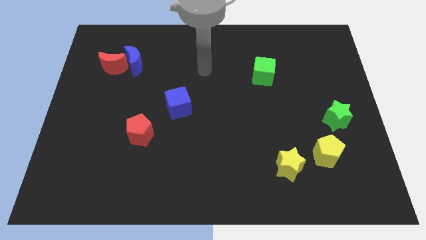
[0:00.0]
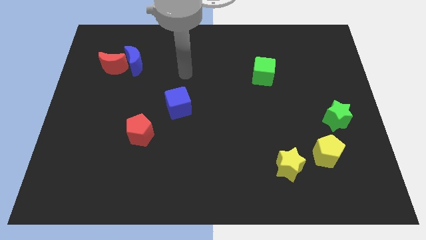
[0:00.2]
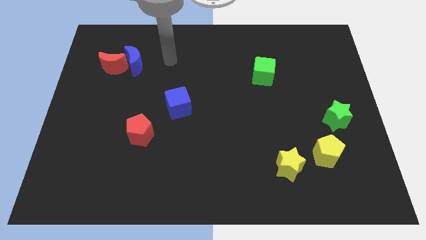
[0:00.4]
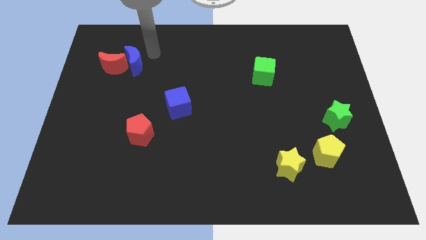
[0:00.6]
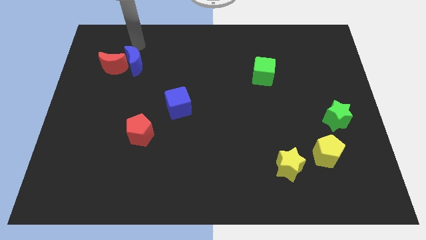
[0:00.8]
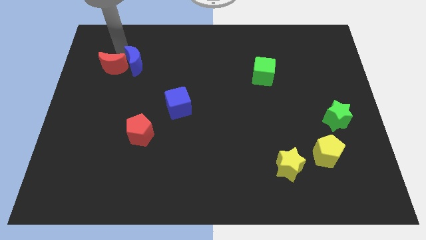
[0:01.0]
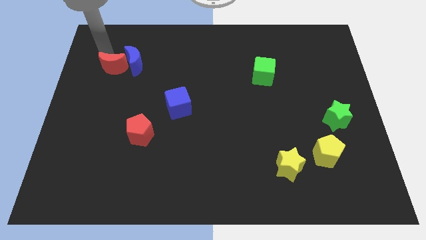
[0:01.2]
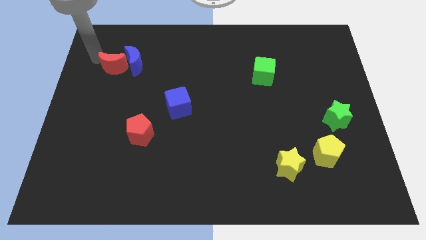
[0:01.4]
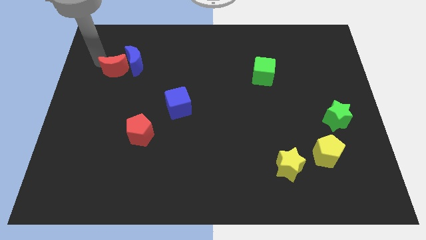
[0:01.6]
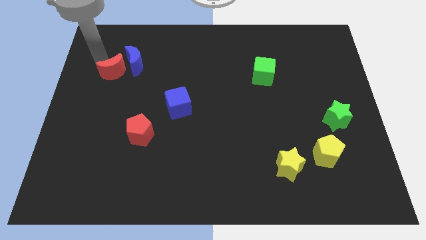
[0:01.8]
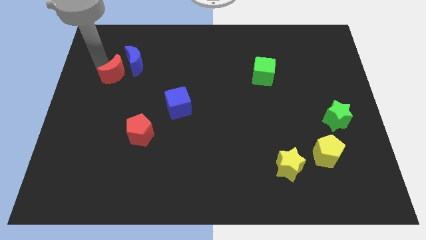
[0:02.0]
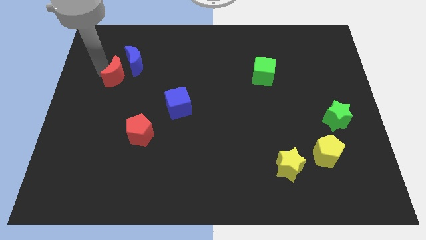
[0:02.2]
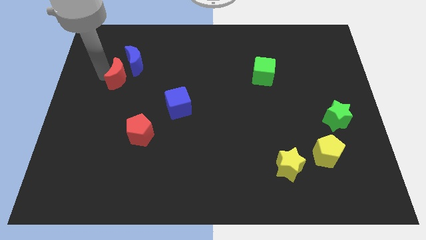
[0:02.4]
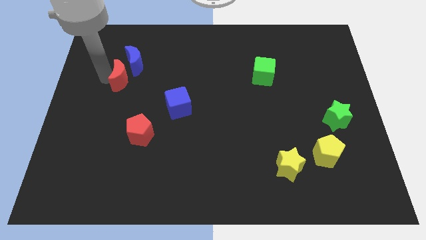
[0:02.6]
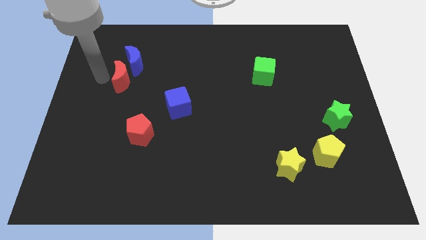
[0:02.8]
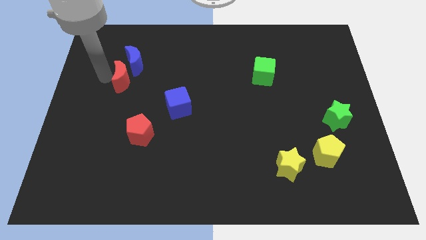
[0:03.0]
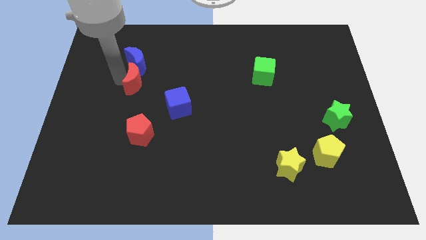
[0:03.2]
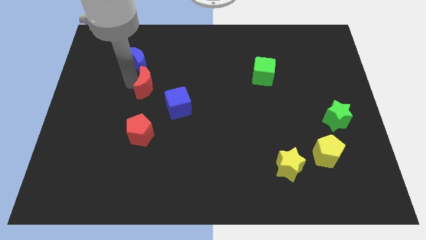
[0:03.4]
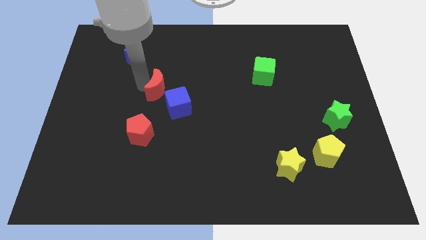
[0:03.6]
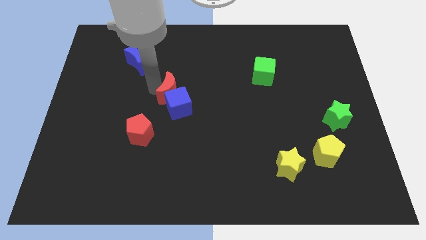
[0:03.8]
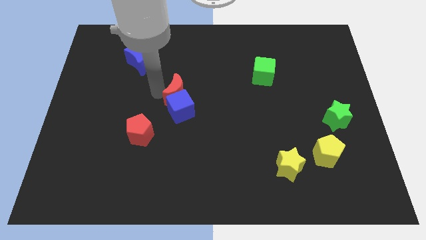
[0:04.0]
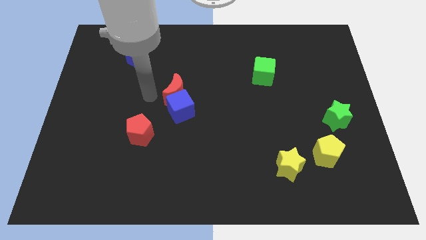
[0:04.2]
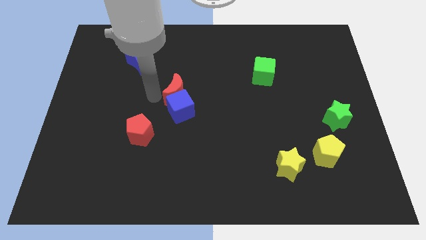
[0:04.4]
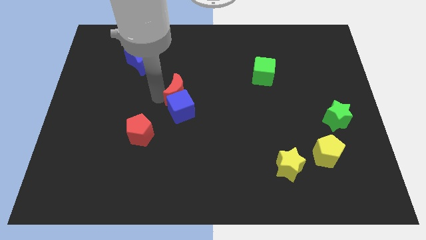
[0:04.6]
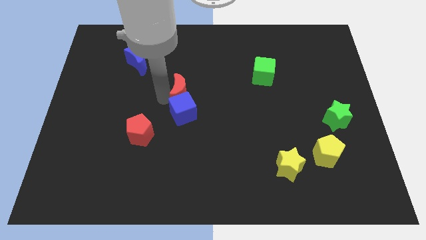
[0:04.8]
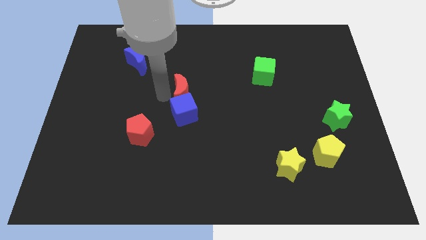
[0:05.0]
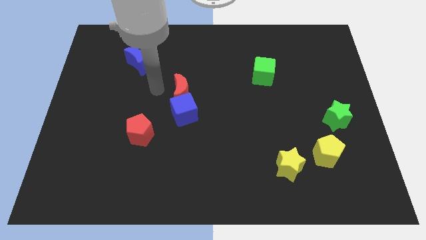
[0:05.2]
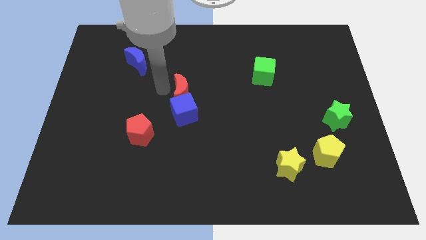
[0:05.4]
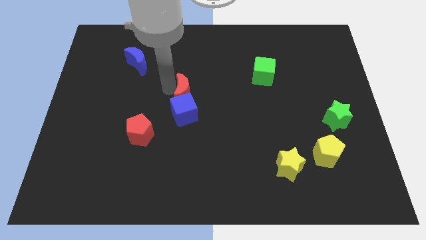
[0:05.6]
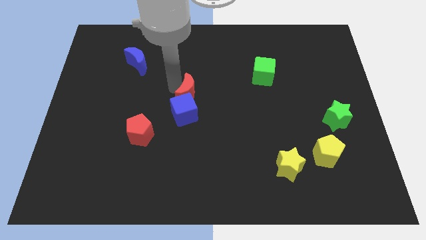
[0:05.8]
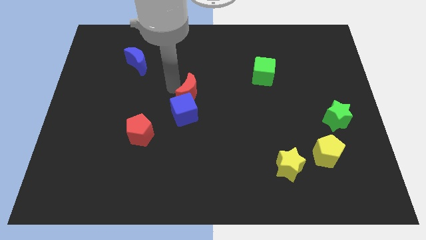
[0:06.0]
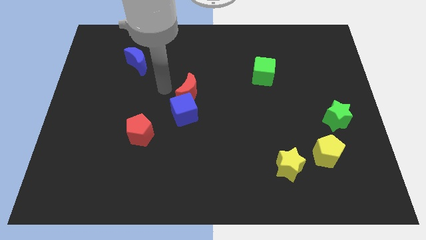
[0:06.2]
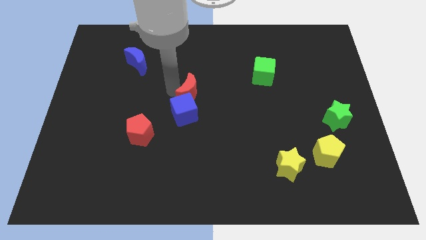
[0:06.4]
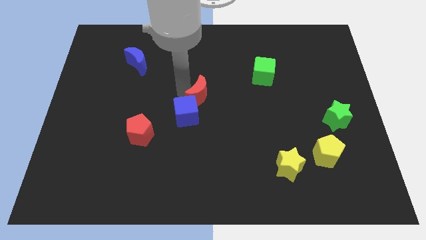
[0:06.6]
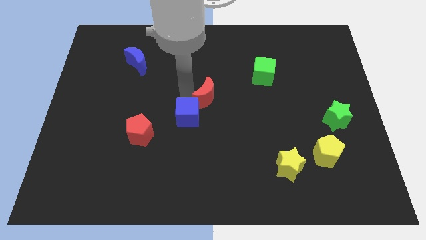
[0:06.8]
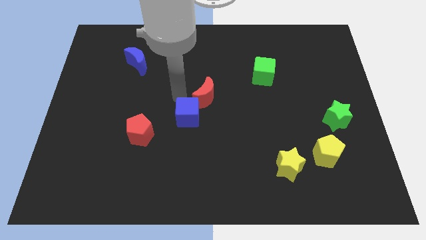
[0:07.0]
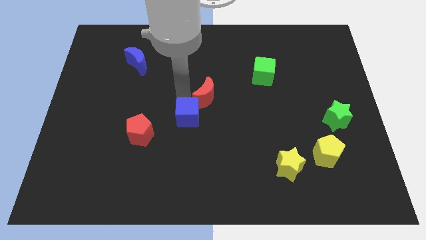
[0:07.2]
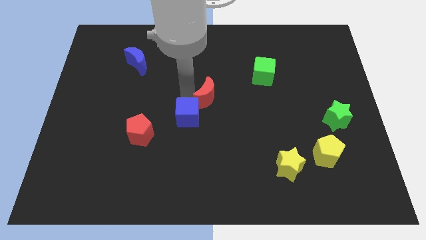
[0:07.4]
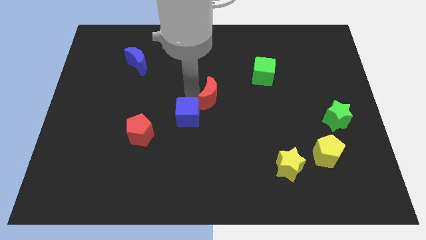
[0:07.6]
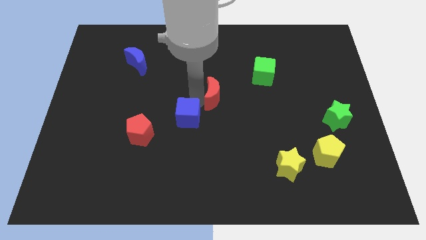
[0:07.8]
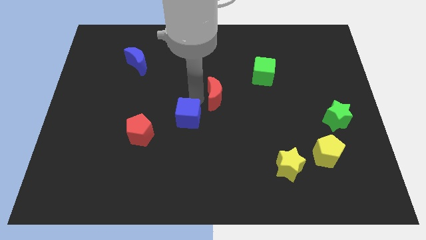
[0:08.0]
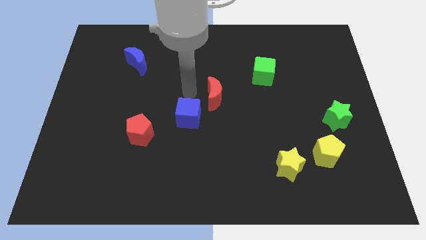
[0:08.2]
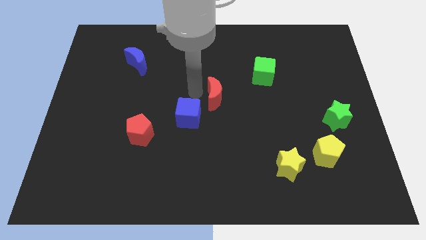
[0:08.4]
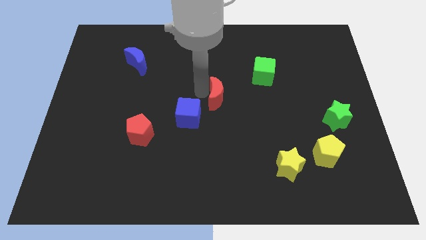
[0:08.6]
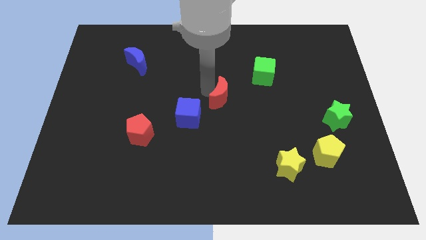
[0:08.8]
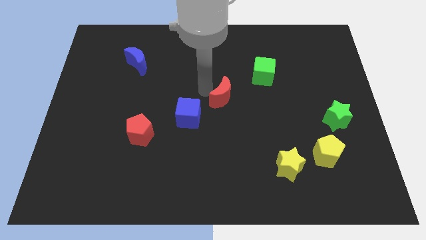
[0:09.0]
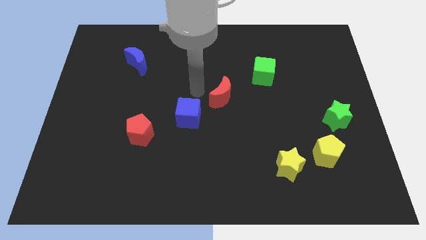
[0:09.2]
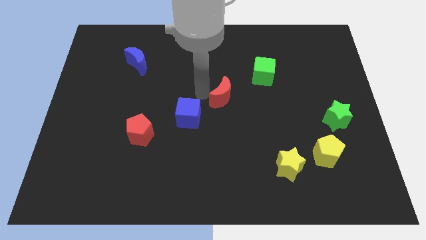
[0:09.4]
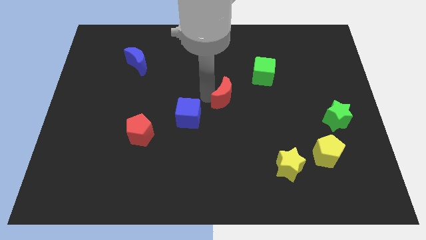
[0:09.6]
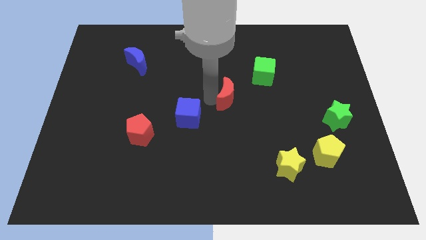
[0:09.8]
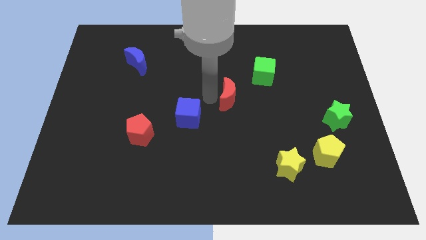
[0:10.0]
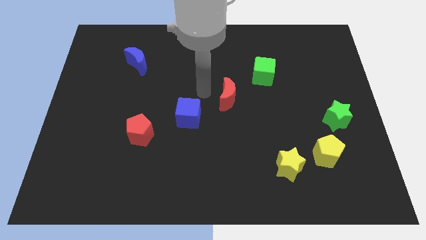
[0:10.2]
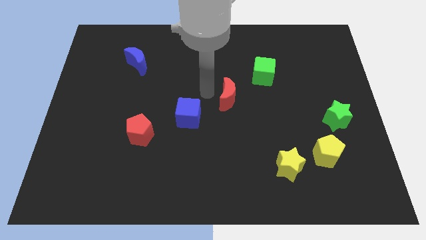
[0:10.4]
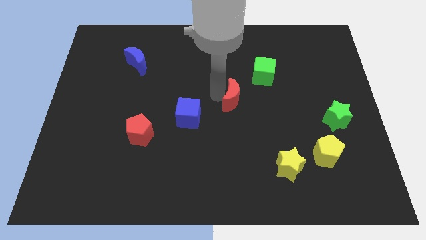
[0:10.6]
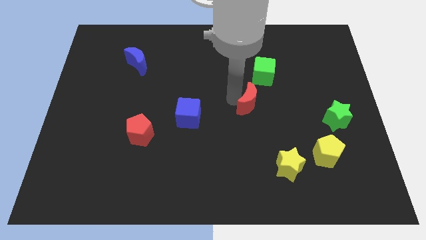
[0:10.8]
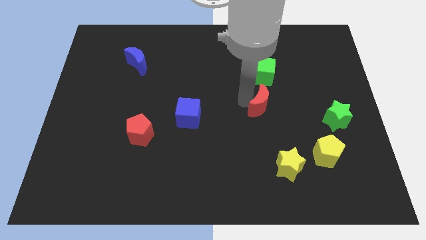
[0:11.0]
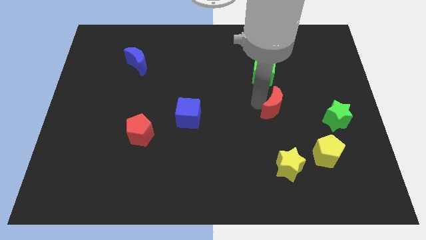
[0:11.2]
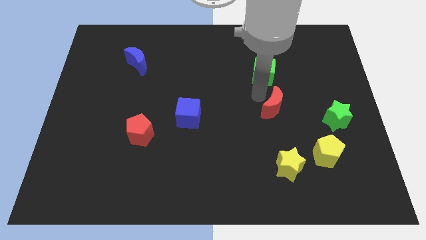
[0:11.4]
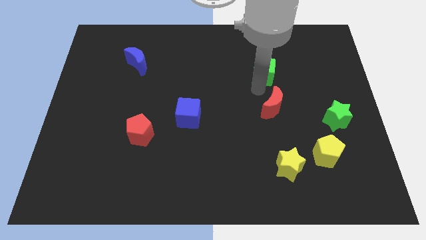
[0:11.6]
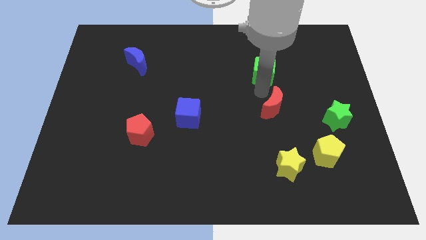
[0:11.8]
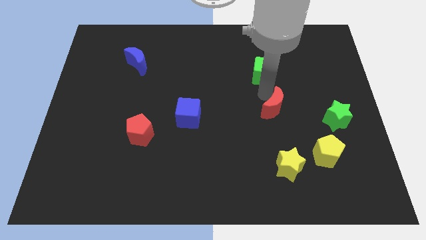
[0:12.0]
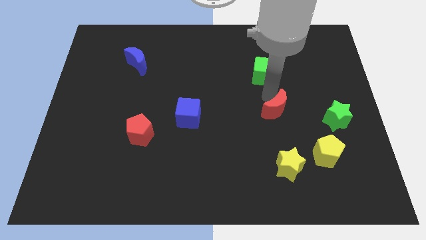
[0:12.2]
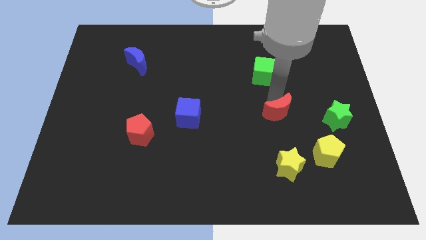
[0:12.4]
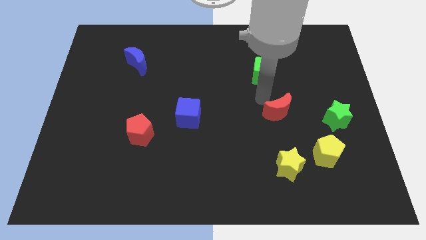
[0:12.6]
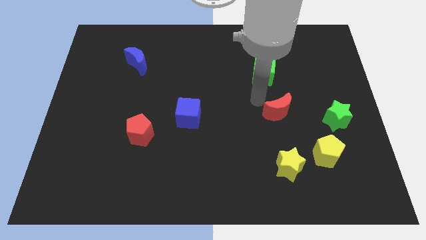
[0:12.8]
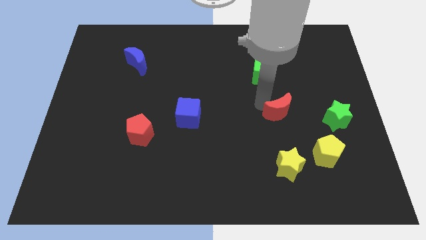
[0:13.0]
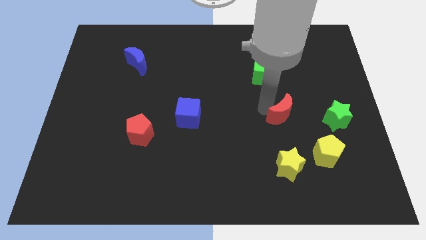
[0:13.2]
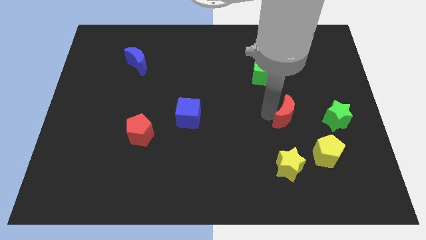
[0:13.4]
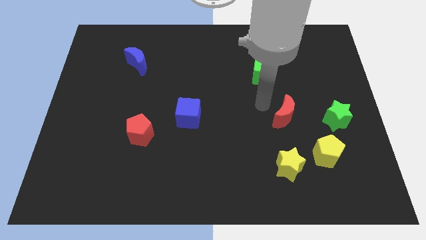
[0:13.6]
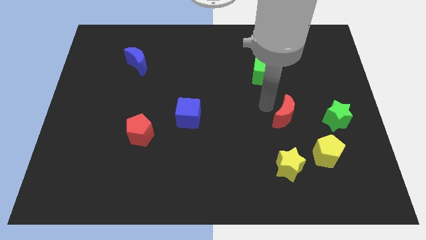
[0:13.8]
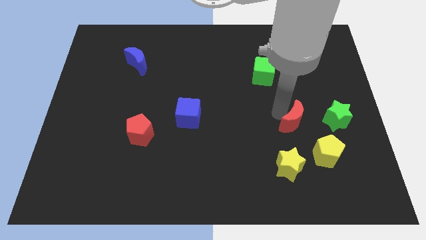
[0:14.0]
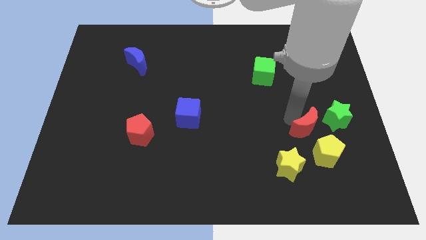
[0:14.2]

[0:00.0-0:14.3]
move the red moon diagonally up and to the right of the yellow star
